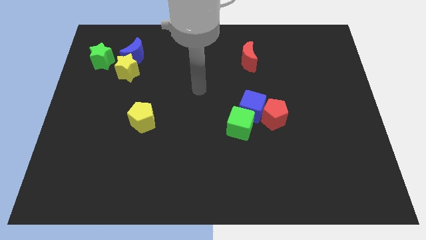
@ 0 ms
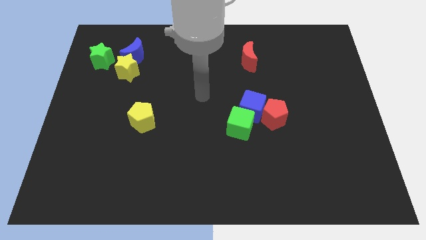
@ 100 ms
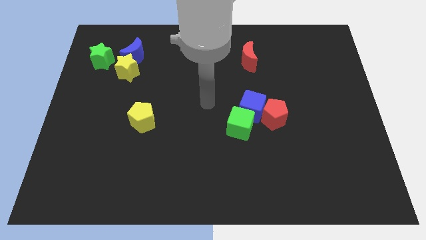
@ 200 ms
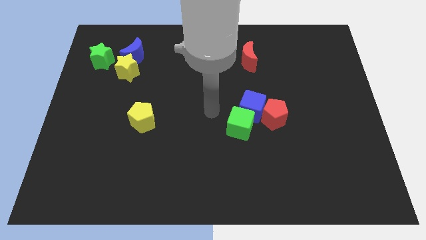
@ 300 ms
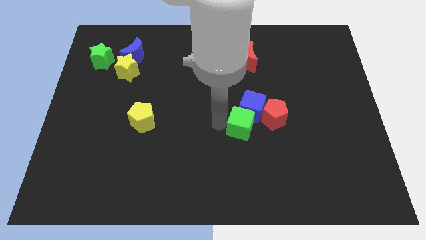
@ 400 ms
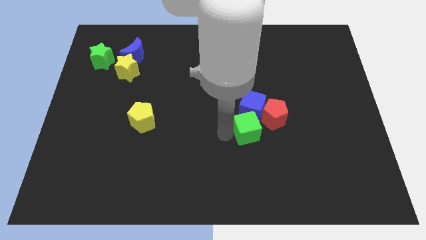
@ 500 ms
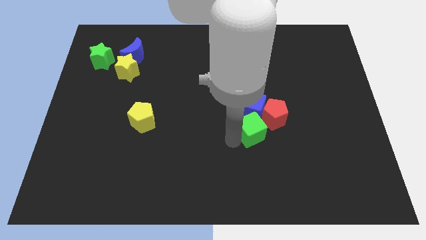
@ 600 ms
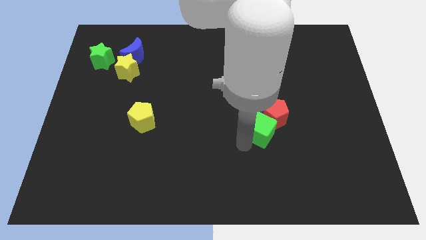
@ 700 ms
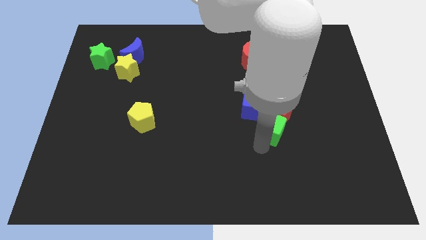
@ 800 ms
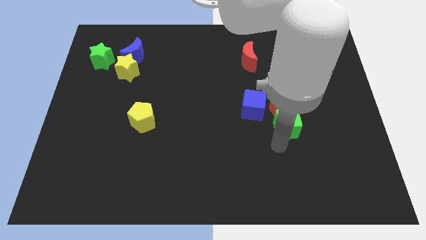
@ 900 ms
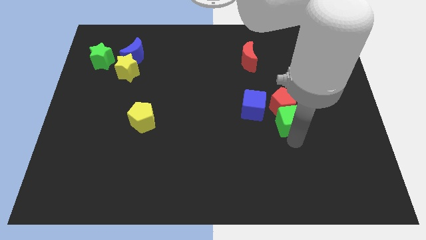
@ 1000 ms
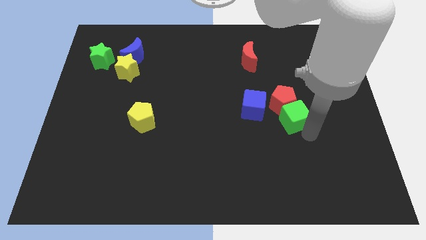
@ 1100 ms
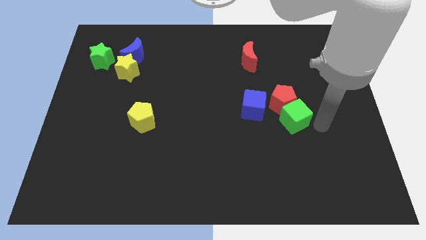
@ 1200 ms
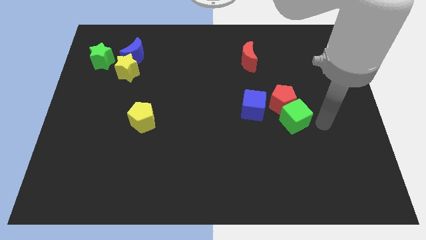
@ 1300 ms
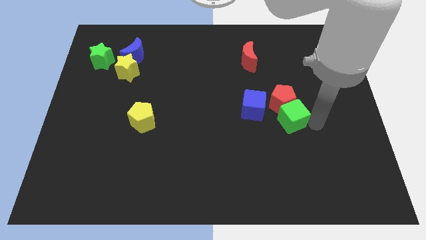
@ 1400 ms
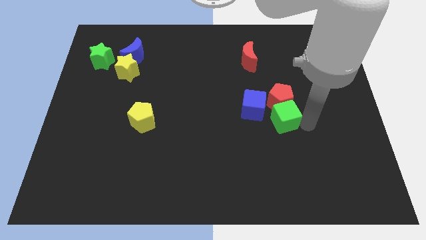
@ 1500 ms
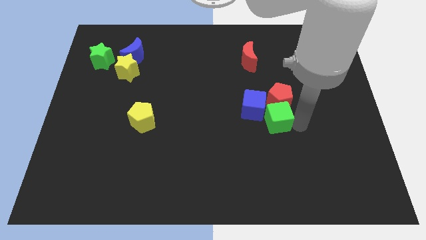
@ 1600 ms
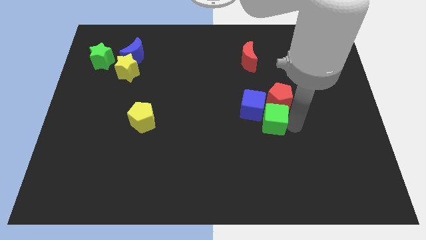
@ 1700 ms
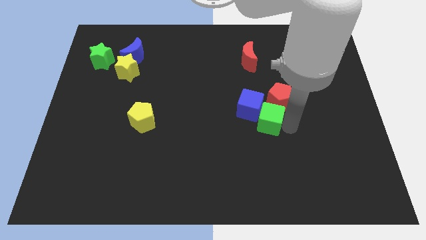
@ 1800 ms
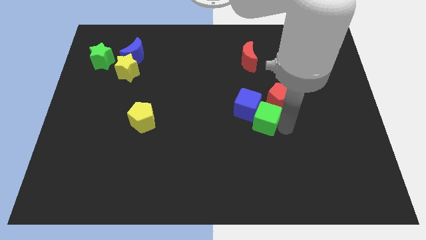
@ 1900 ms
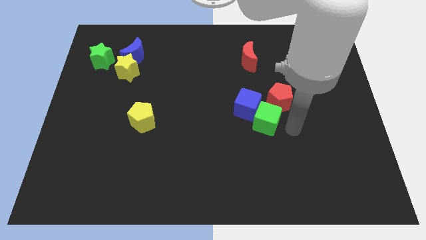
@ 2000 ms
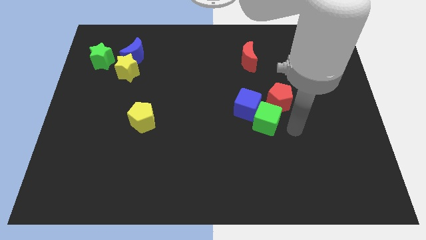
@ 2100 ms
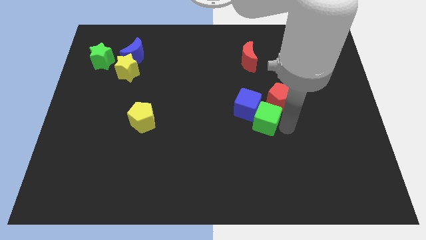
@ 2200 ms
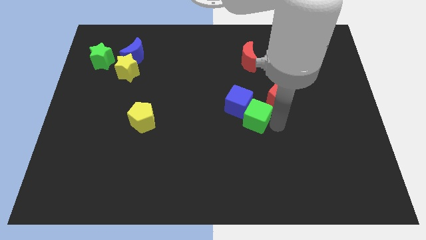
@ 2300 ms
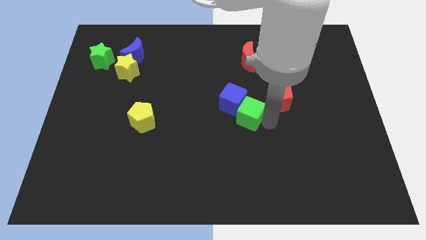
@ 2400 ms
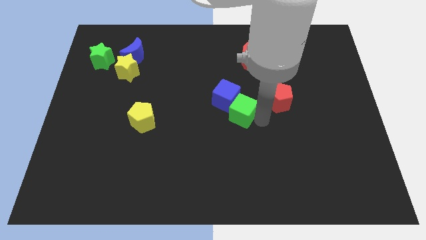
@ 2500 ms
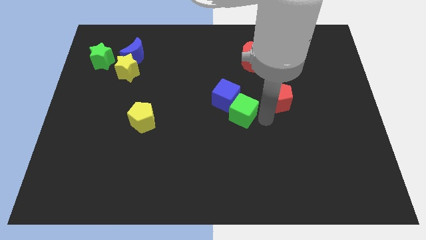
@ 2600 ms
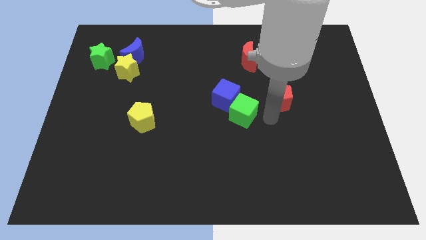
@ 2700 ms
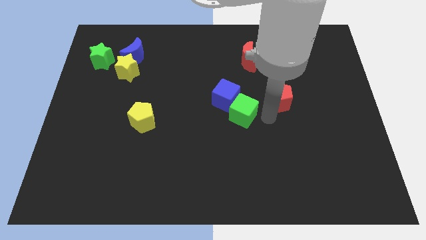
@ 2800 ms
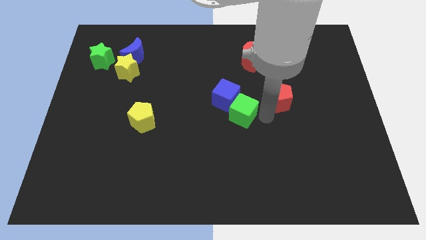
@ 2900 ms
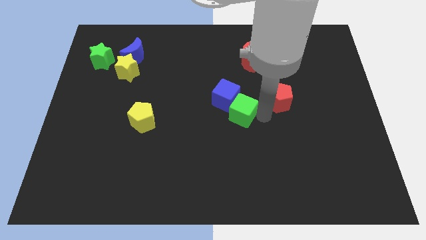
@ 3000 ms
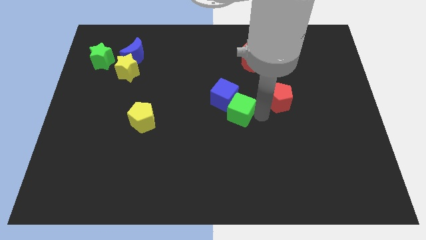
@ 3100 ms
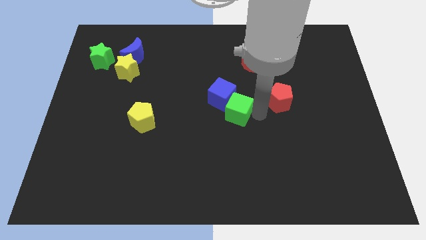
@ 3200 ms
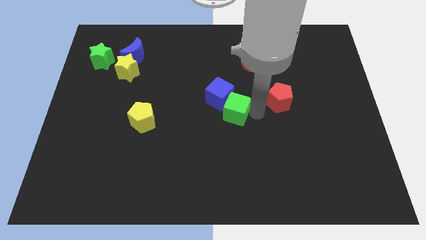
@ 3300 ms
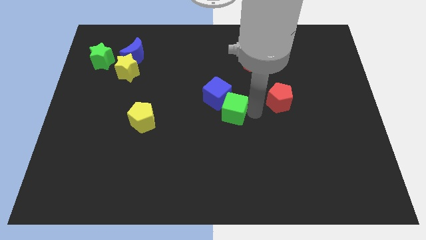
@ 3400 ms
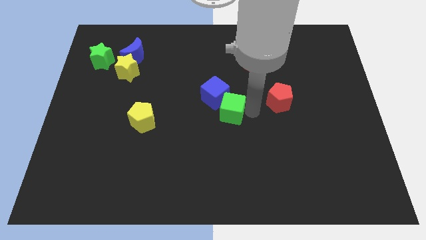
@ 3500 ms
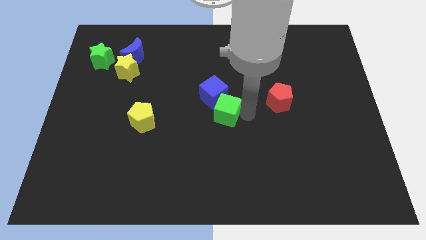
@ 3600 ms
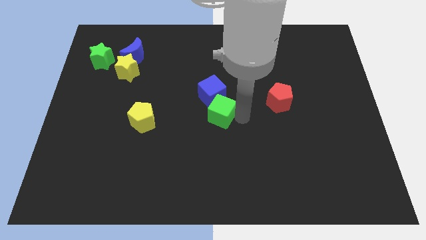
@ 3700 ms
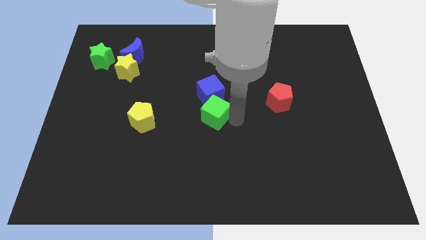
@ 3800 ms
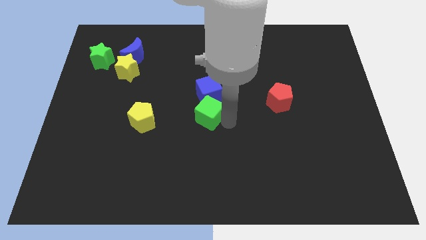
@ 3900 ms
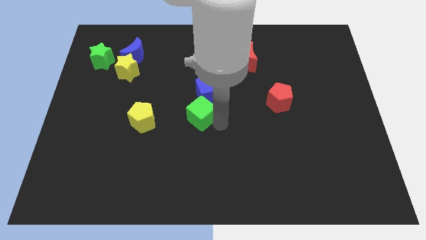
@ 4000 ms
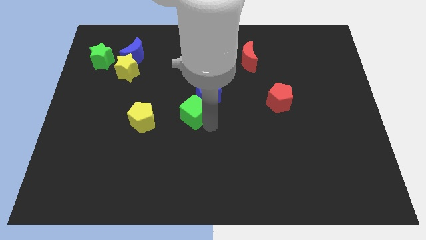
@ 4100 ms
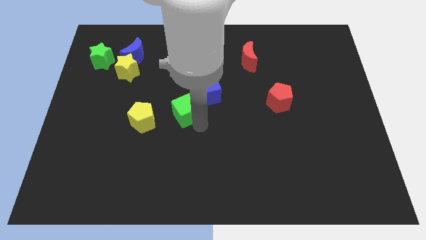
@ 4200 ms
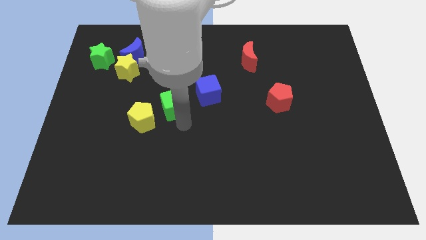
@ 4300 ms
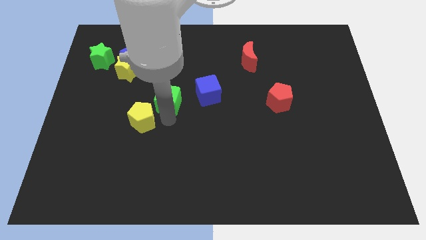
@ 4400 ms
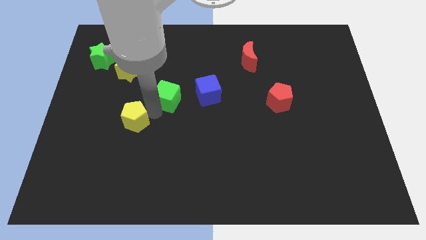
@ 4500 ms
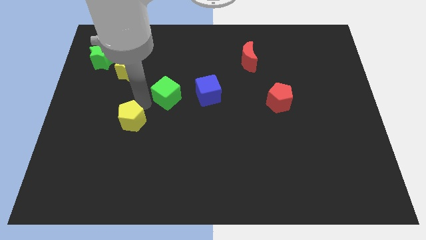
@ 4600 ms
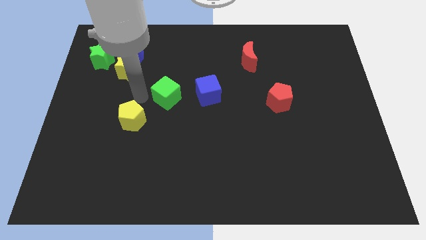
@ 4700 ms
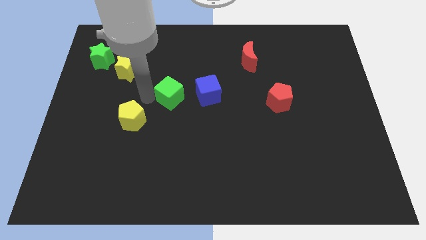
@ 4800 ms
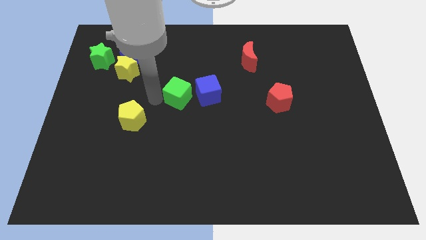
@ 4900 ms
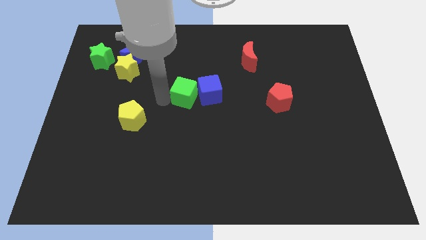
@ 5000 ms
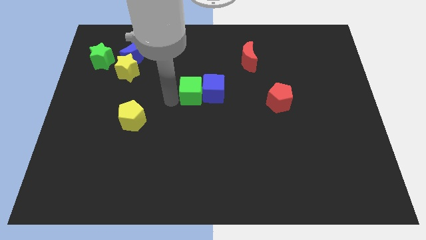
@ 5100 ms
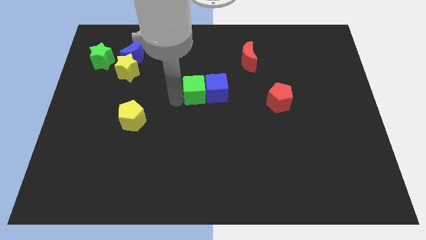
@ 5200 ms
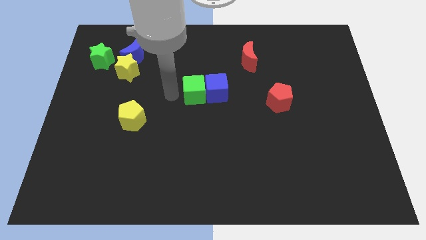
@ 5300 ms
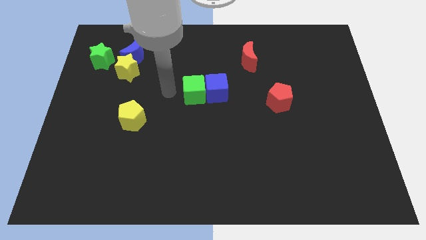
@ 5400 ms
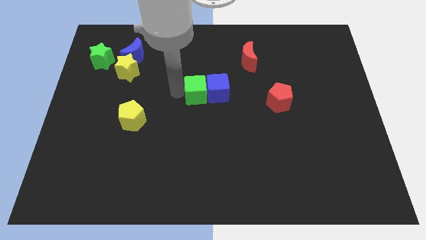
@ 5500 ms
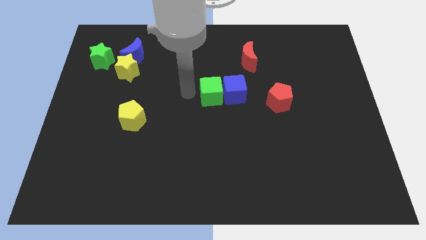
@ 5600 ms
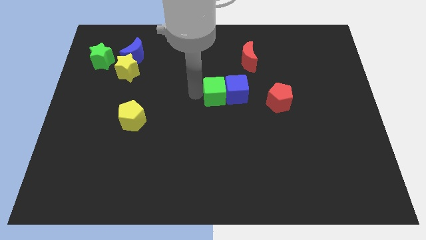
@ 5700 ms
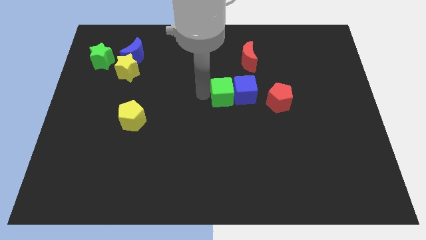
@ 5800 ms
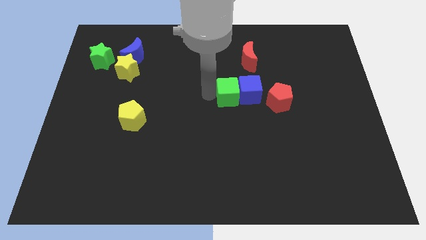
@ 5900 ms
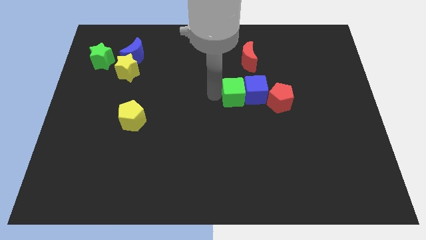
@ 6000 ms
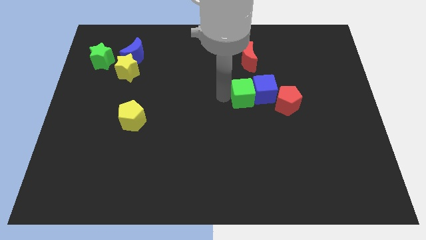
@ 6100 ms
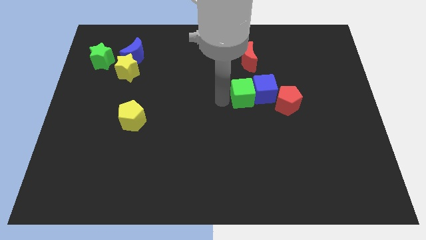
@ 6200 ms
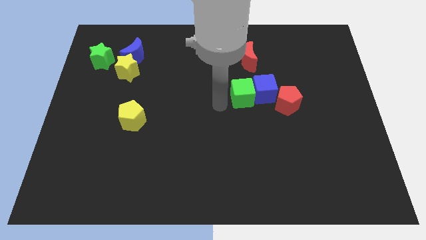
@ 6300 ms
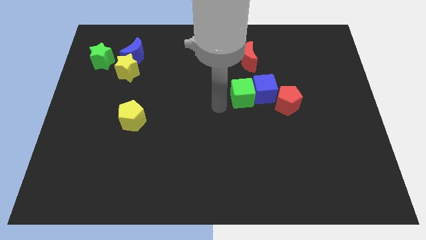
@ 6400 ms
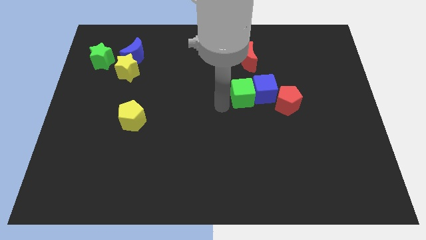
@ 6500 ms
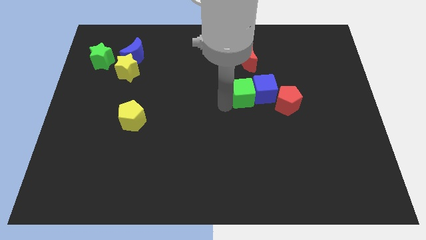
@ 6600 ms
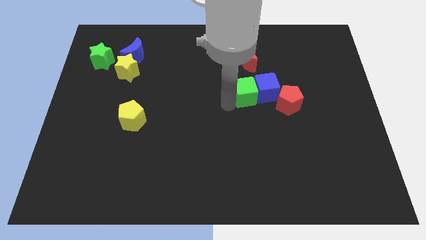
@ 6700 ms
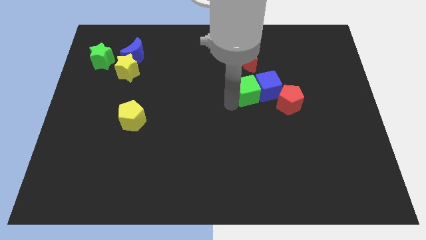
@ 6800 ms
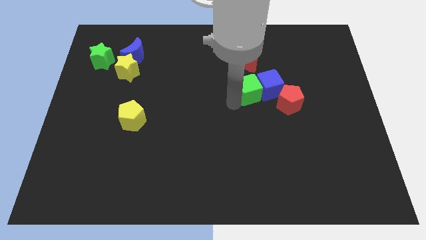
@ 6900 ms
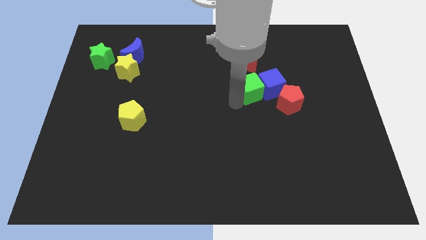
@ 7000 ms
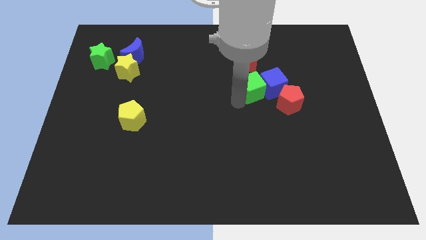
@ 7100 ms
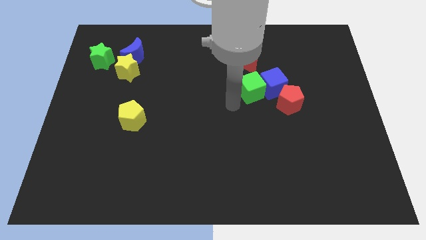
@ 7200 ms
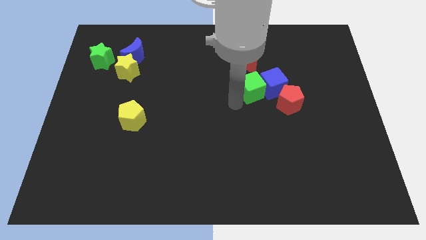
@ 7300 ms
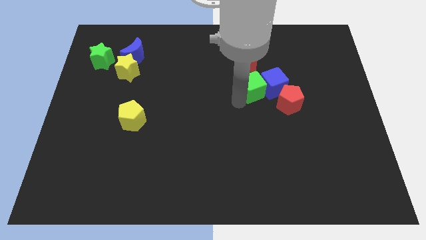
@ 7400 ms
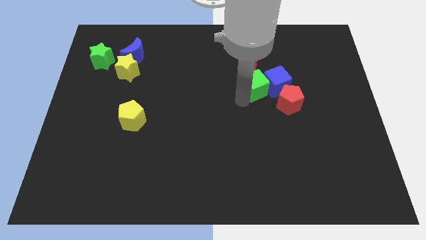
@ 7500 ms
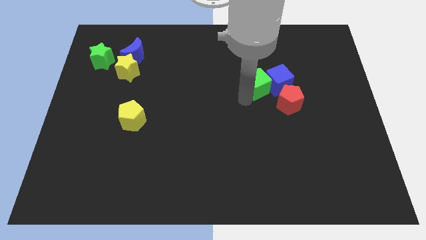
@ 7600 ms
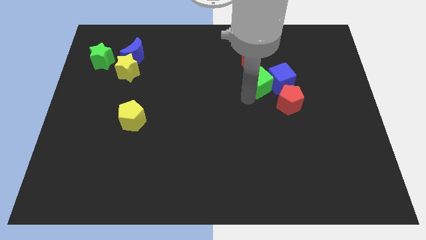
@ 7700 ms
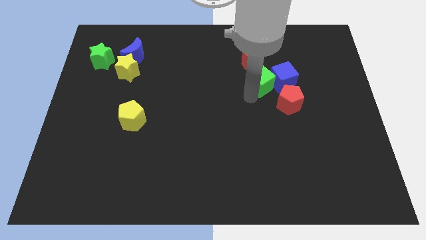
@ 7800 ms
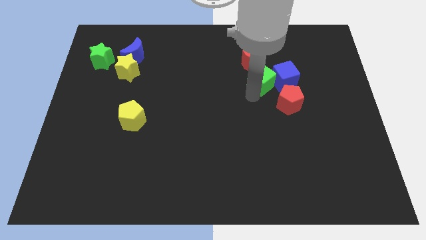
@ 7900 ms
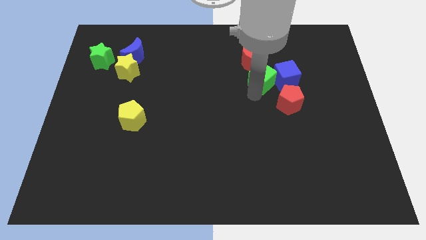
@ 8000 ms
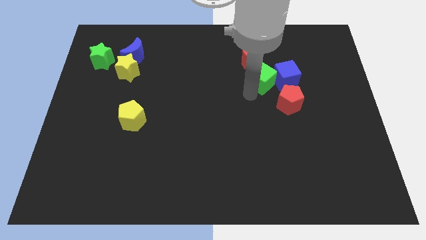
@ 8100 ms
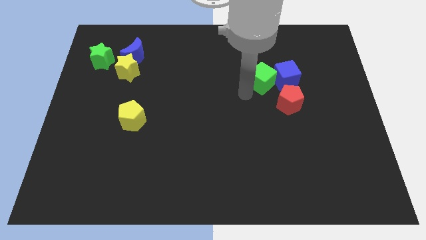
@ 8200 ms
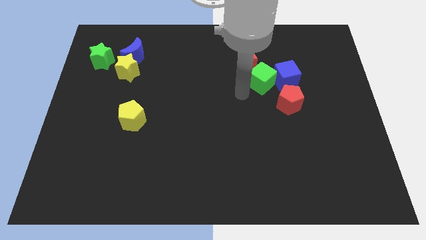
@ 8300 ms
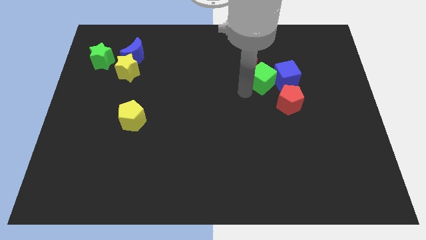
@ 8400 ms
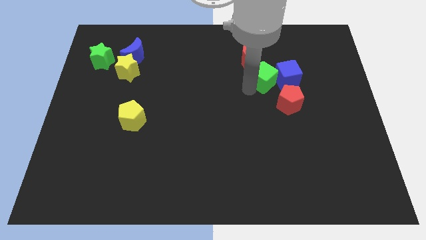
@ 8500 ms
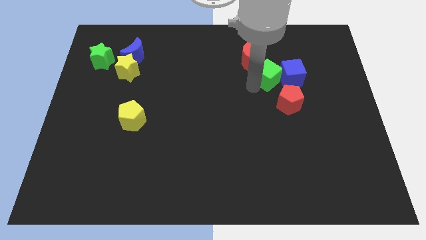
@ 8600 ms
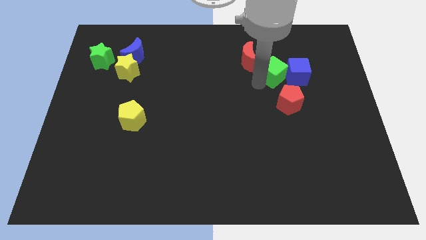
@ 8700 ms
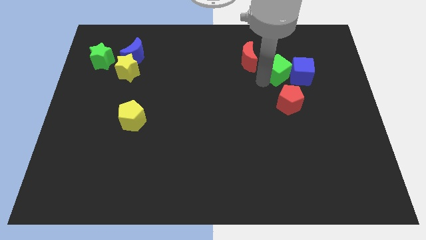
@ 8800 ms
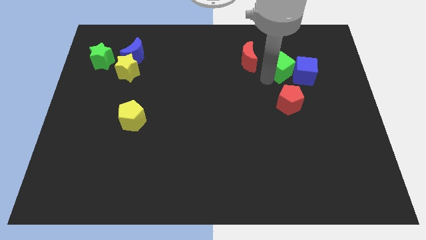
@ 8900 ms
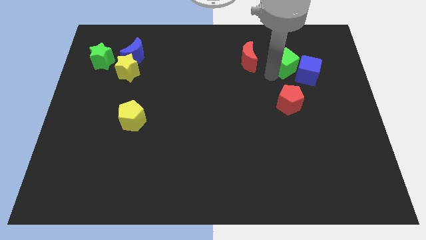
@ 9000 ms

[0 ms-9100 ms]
push the green cube up and right diagonally
